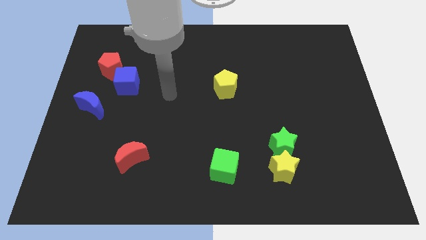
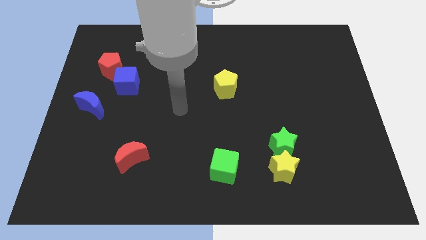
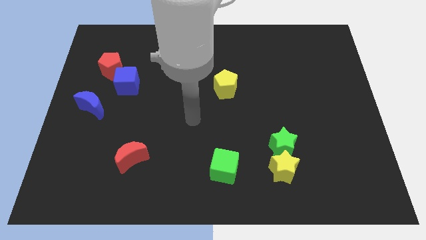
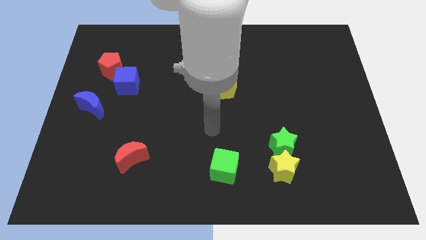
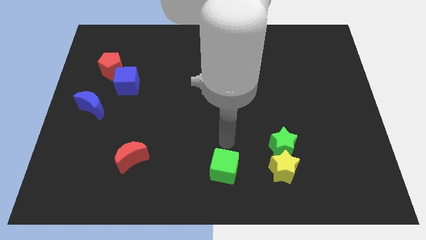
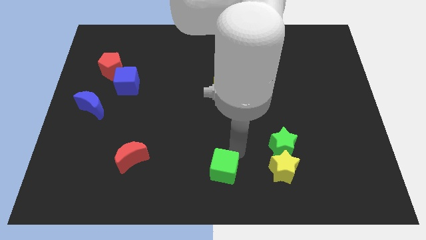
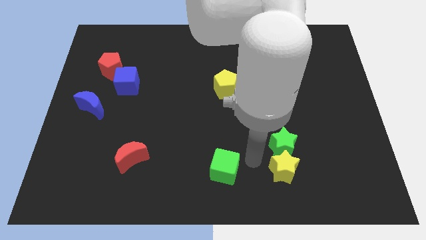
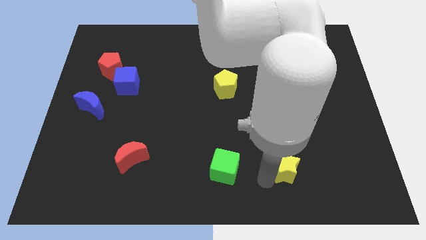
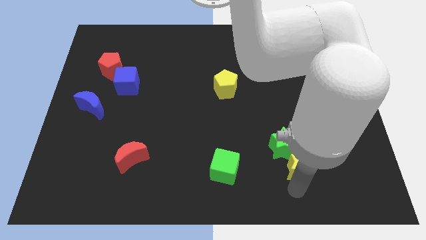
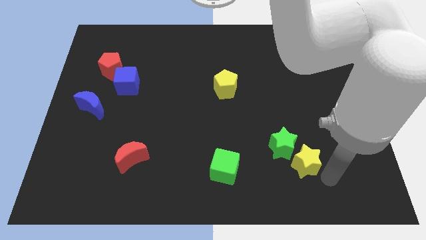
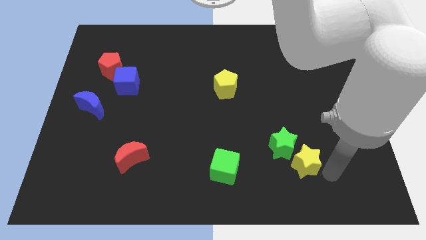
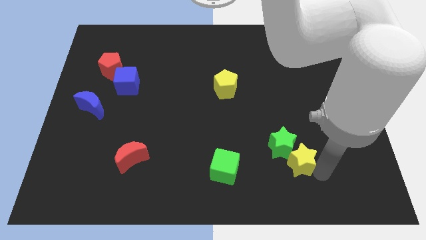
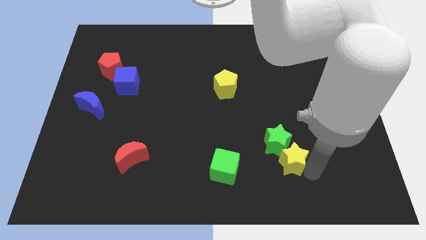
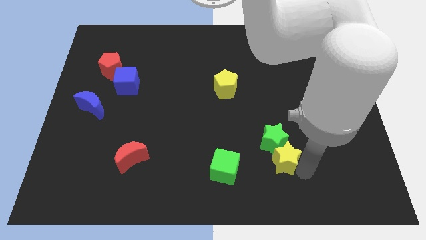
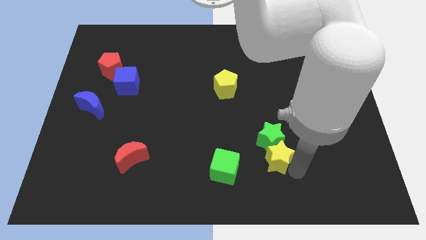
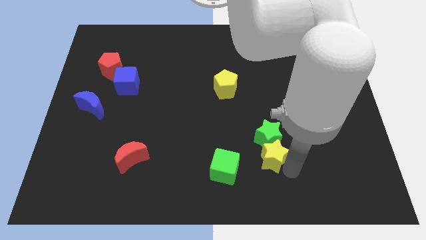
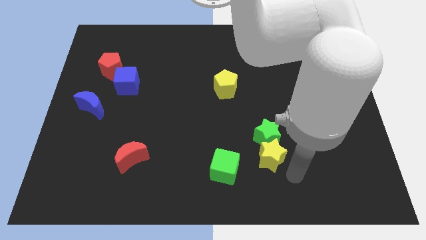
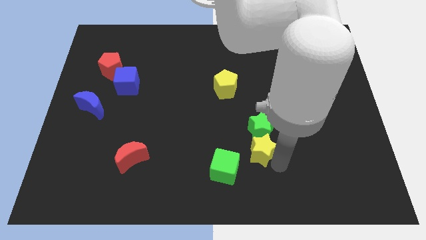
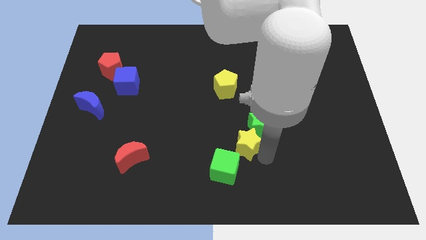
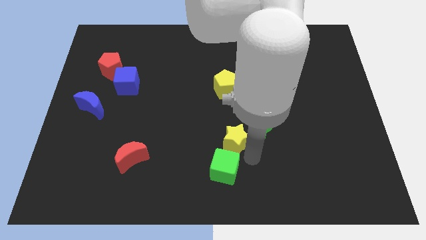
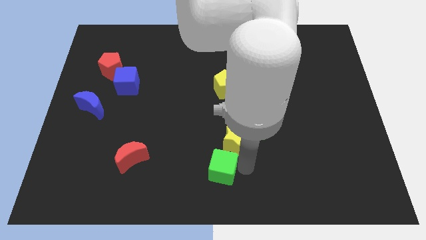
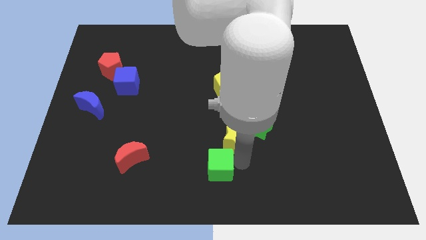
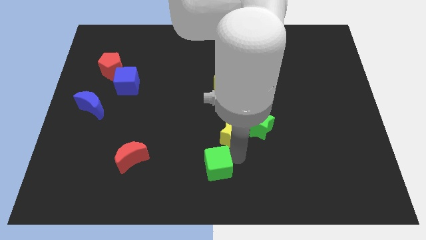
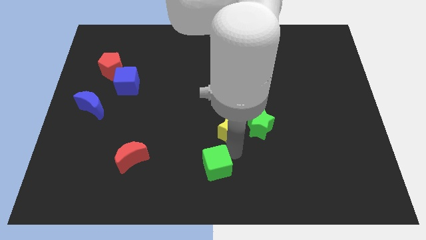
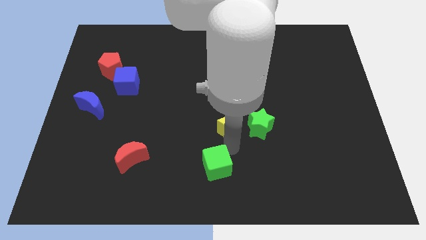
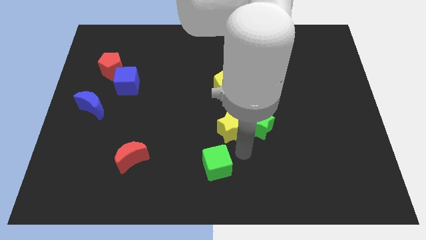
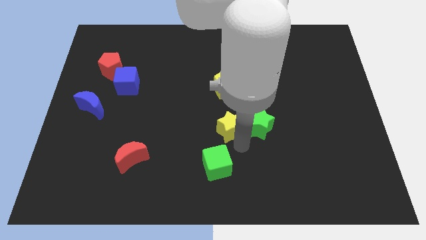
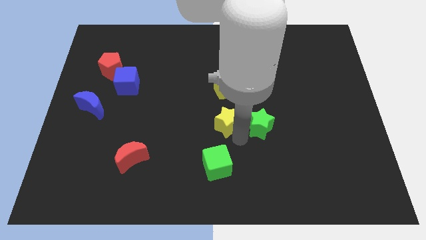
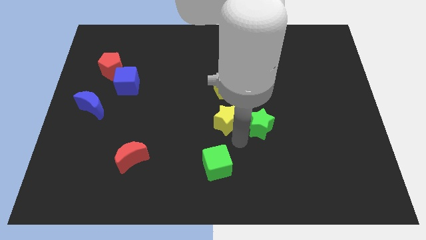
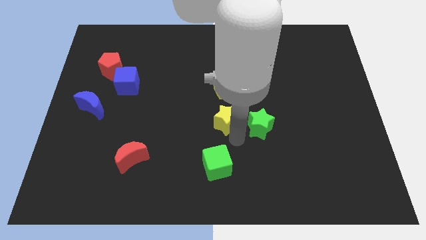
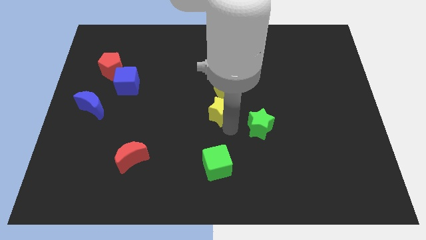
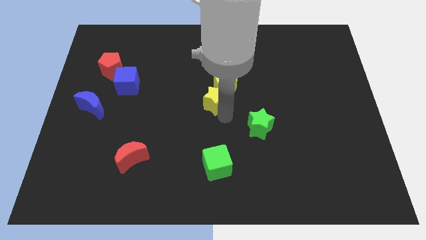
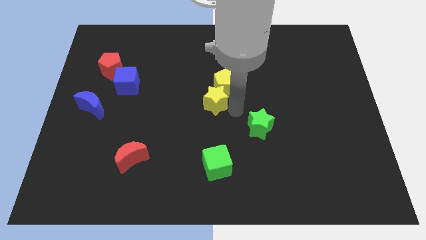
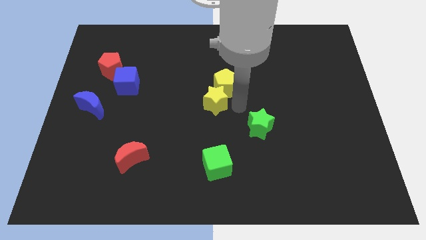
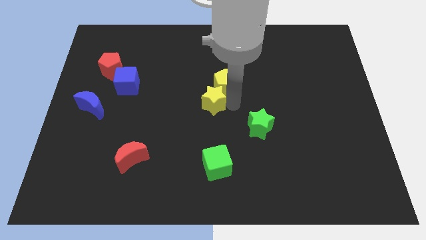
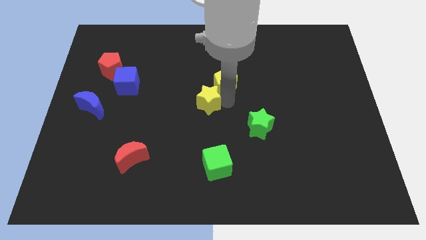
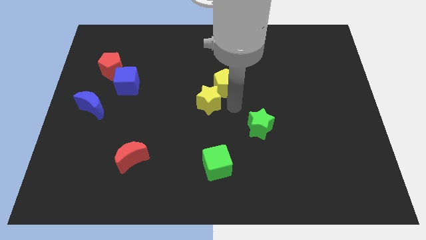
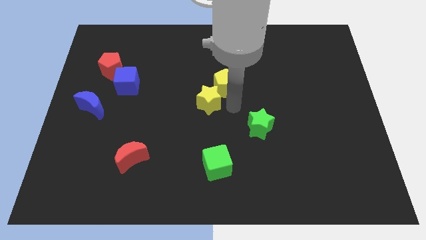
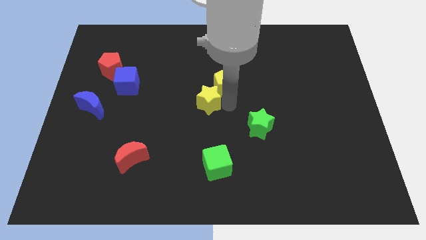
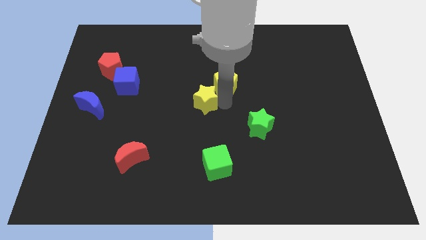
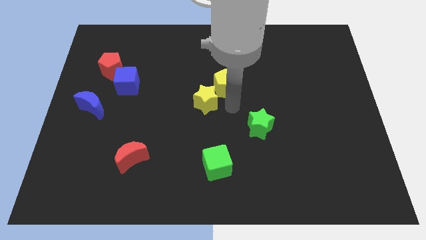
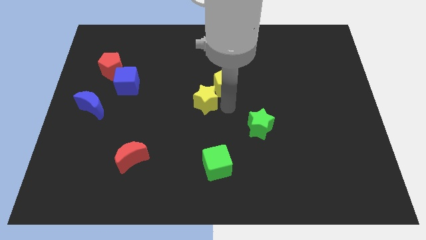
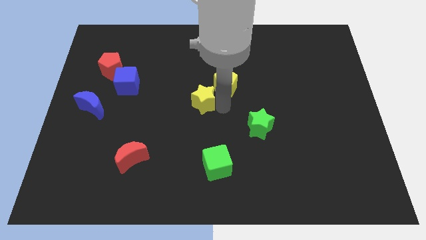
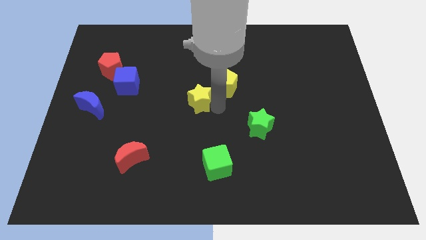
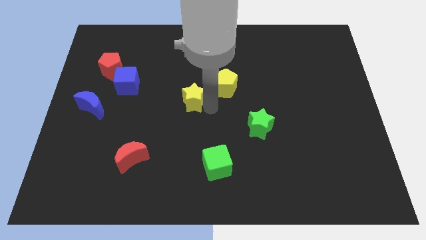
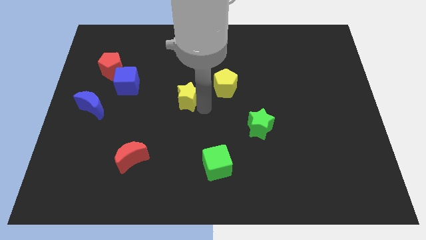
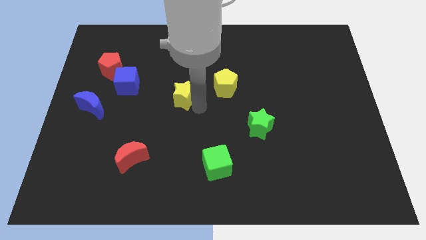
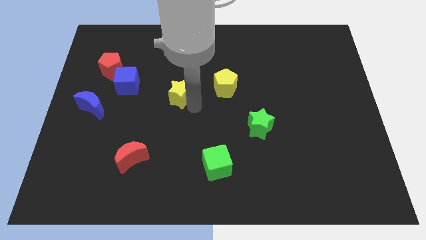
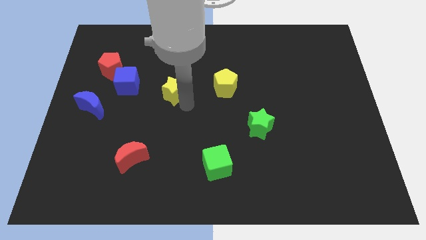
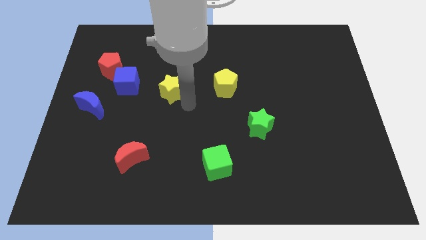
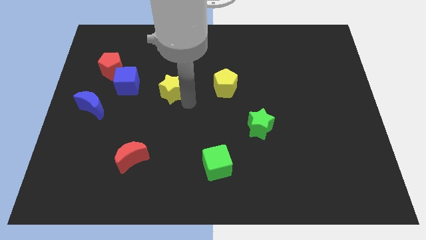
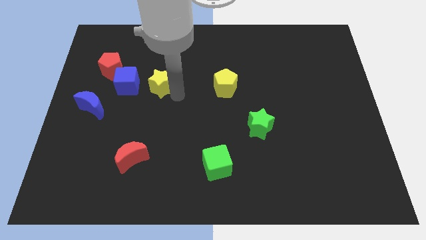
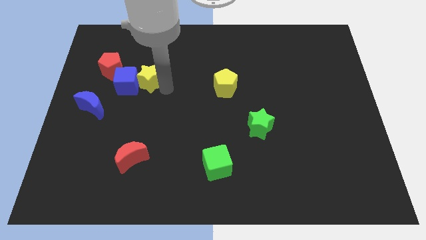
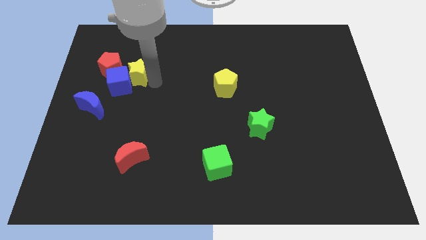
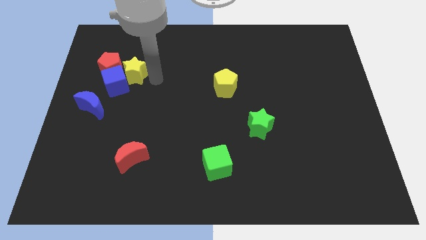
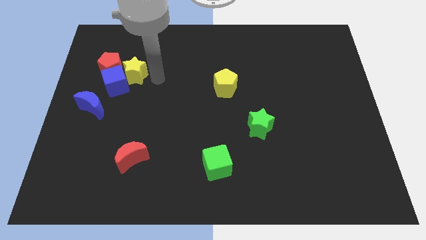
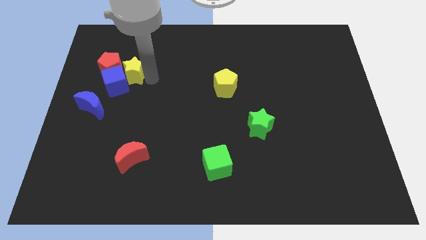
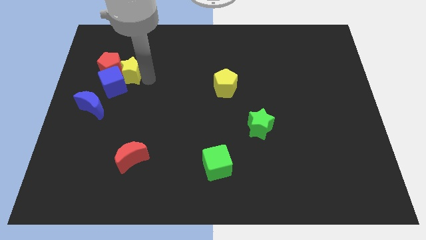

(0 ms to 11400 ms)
put the yellow star towards the red pentagon

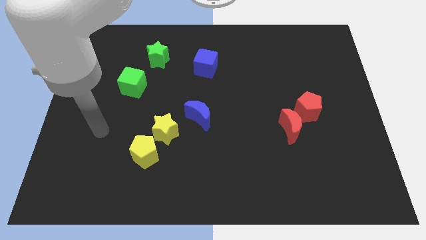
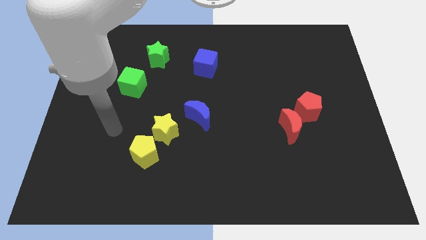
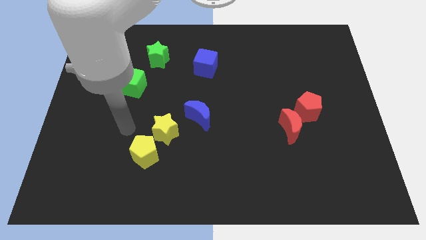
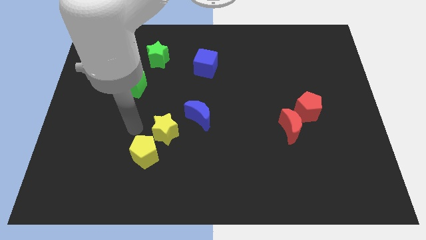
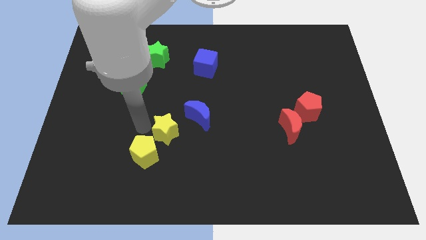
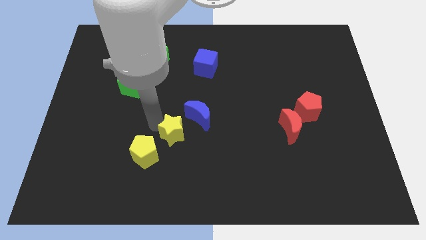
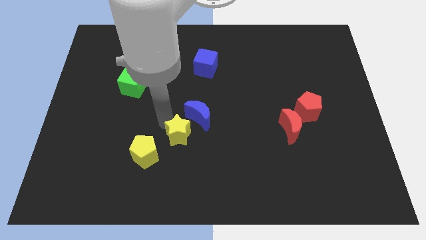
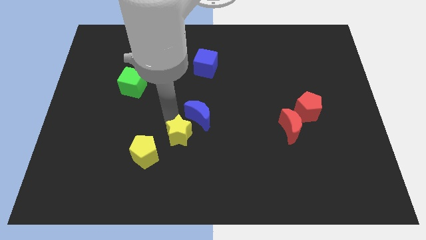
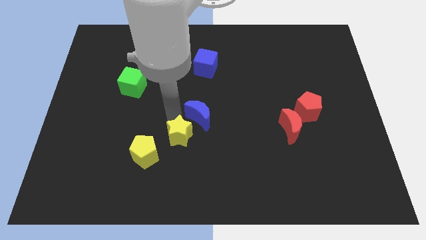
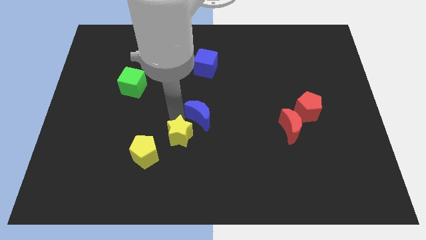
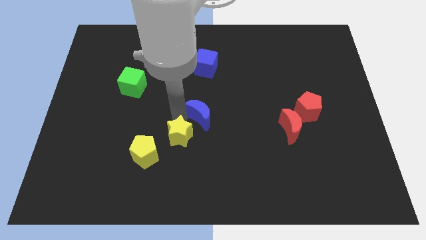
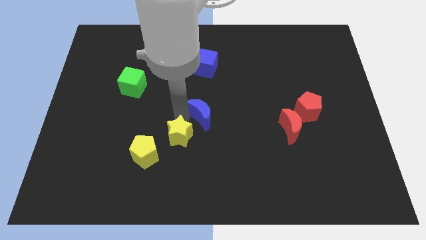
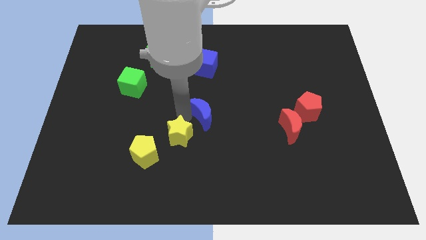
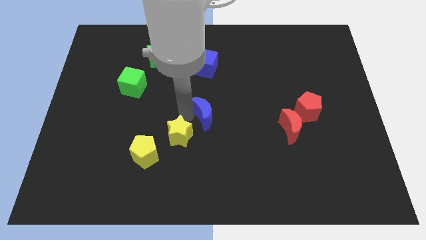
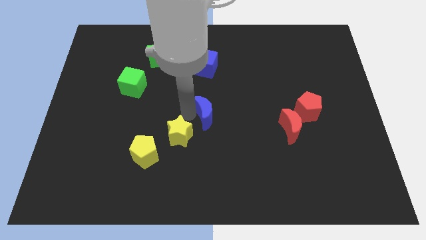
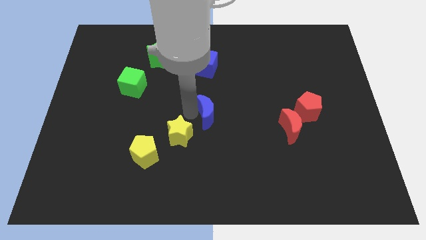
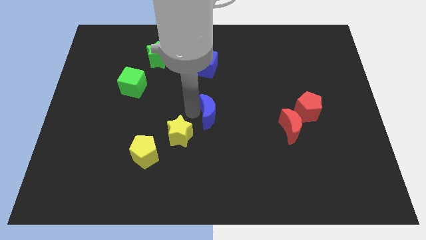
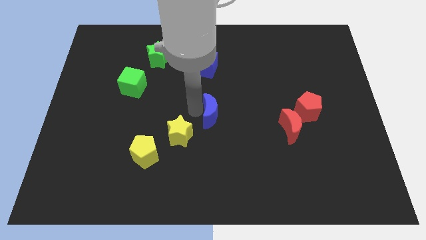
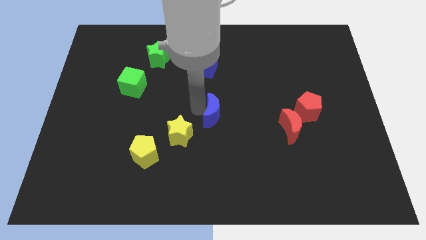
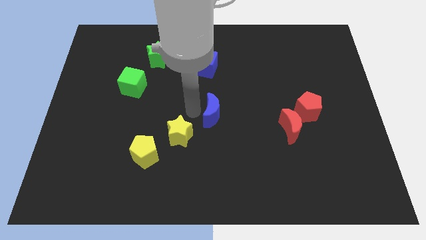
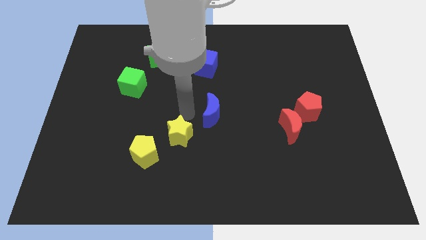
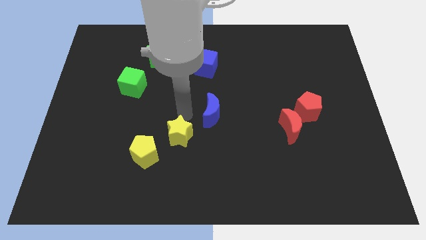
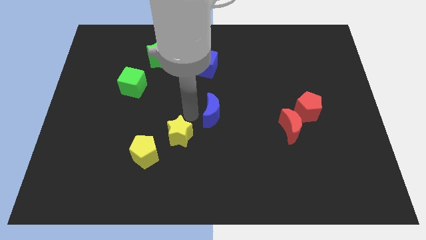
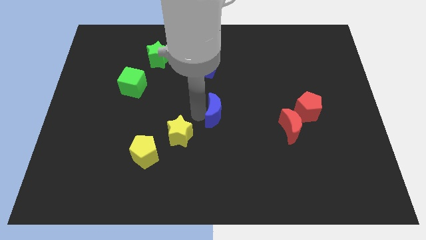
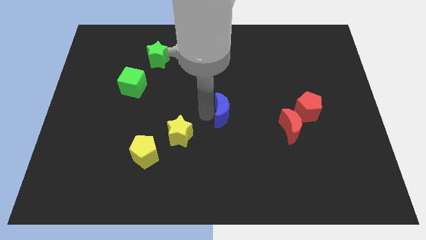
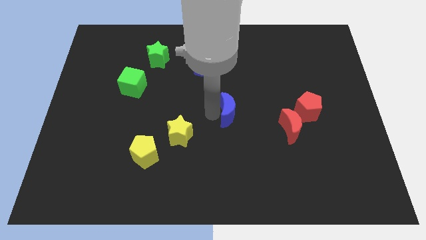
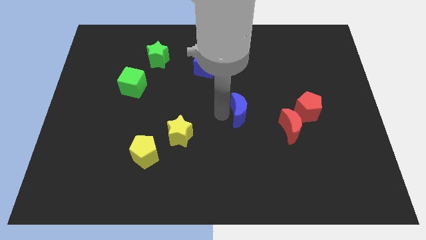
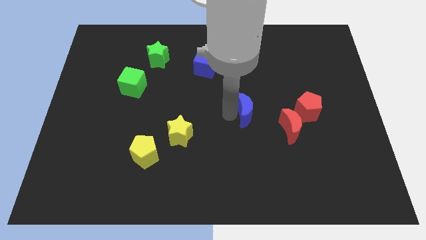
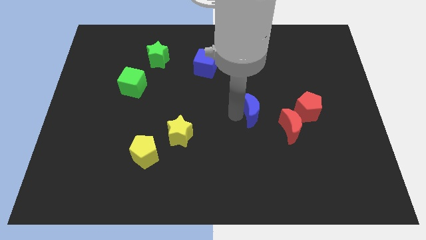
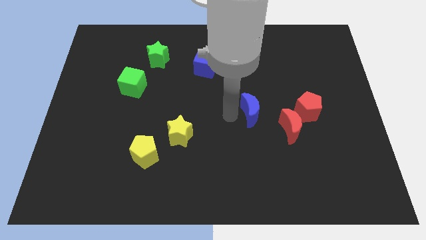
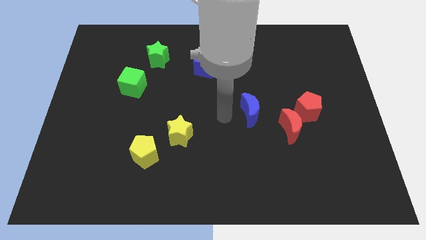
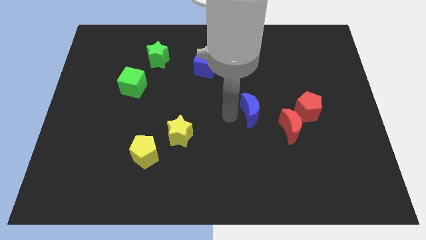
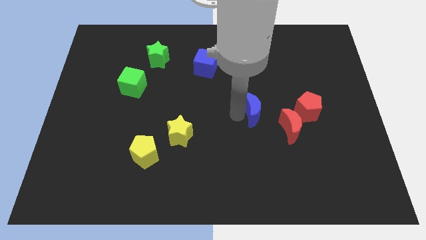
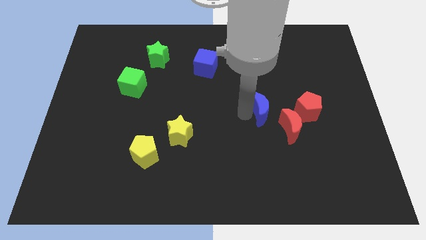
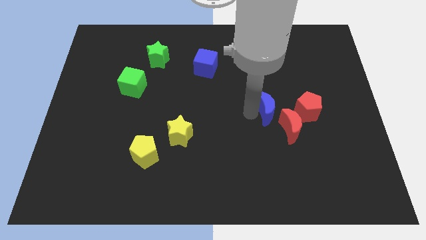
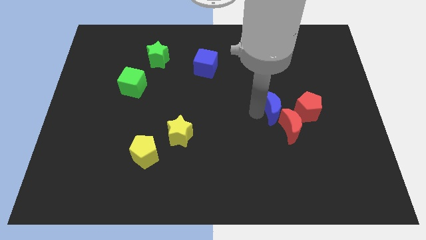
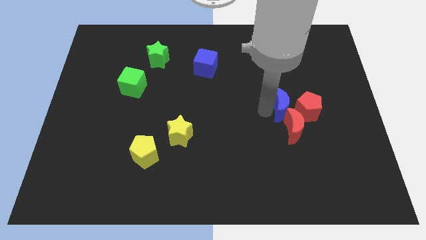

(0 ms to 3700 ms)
push the blue moon next to the red pentagon
